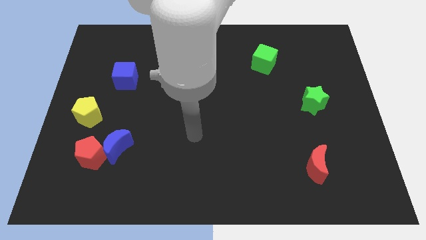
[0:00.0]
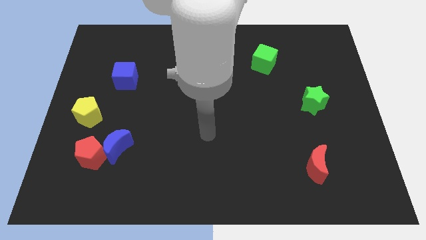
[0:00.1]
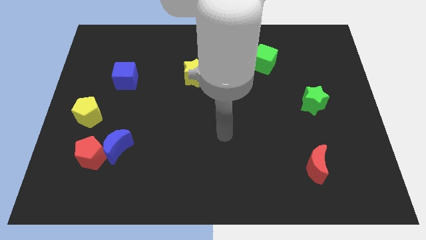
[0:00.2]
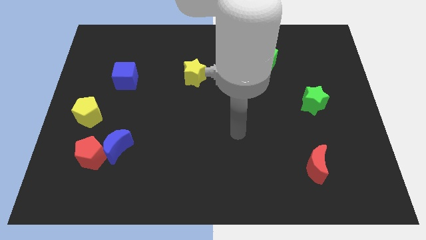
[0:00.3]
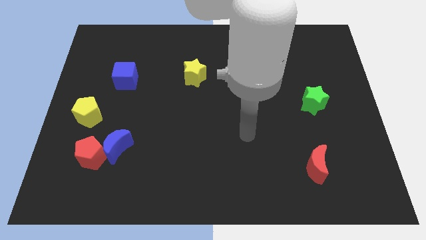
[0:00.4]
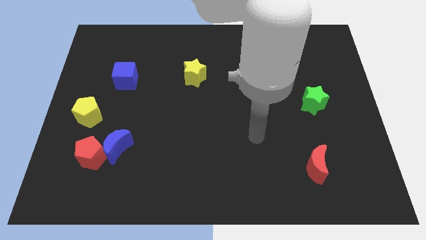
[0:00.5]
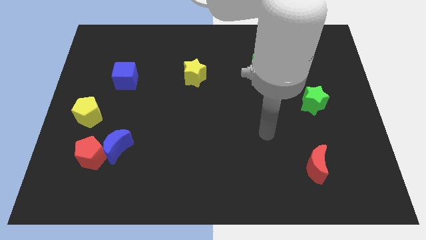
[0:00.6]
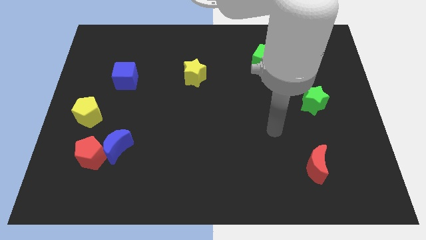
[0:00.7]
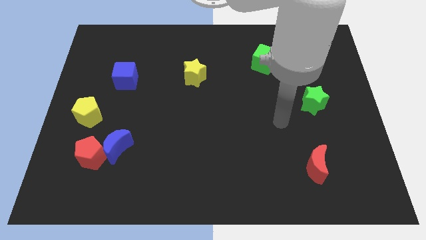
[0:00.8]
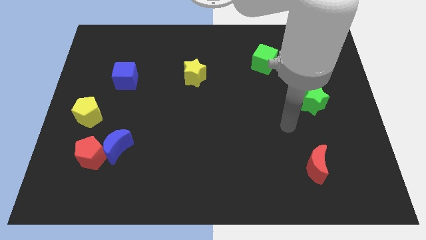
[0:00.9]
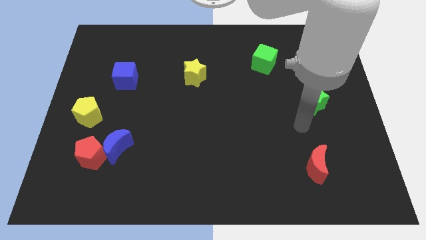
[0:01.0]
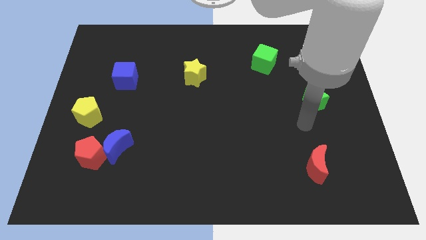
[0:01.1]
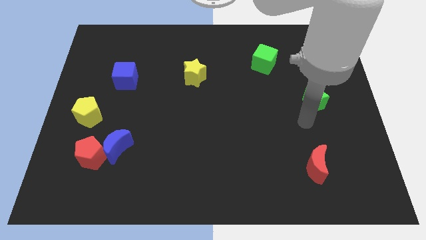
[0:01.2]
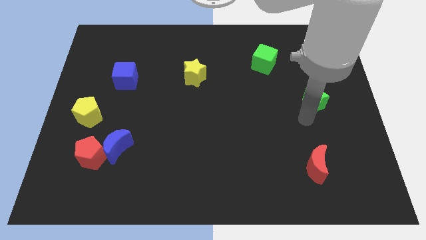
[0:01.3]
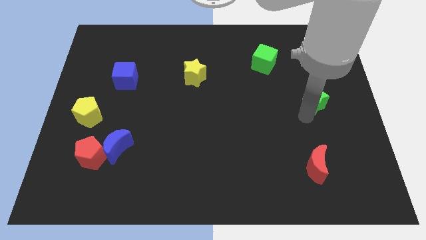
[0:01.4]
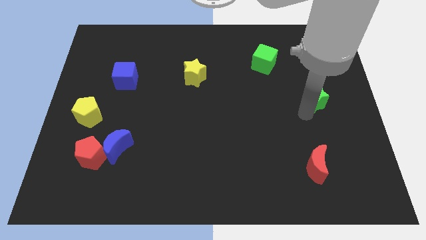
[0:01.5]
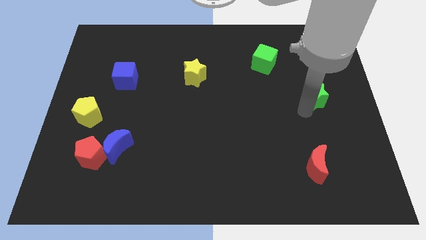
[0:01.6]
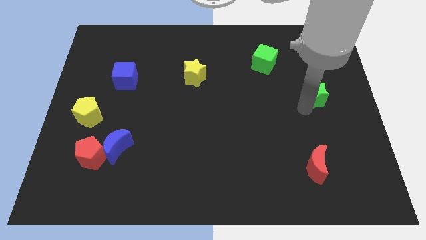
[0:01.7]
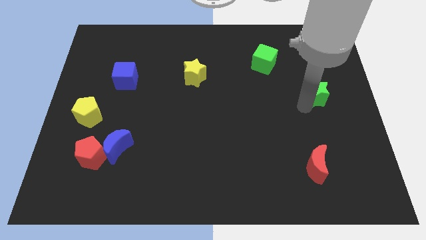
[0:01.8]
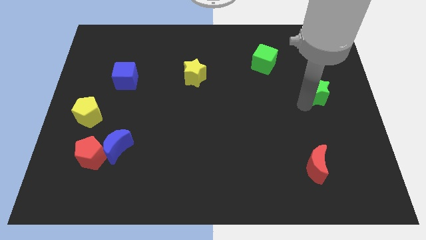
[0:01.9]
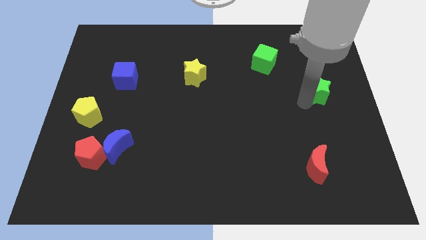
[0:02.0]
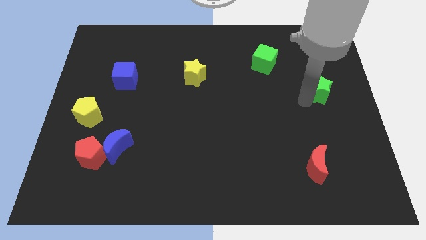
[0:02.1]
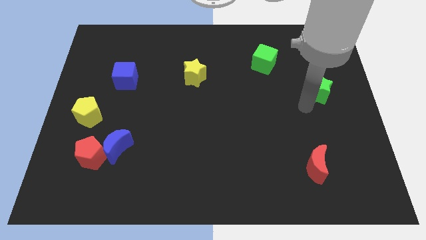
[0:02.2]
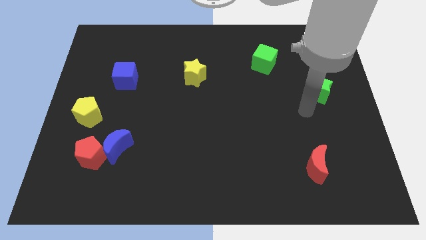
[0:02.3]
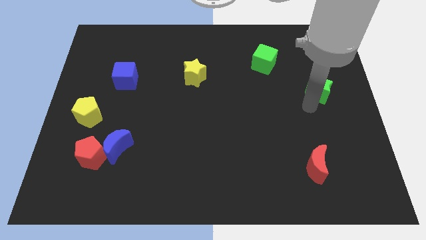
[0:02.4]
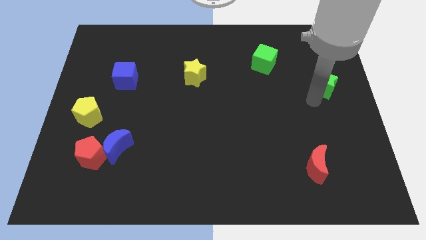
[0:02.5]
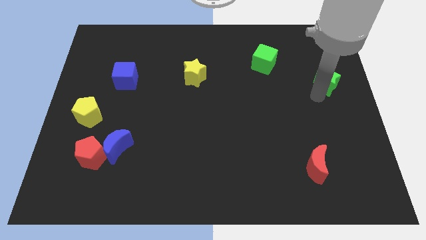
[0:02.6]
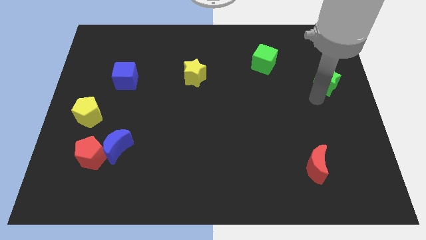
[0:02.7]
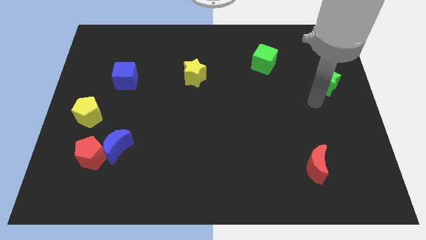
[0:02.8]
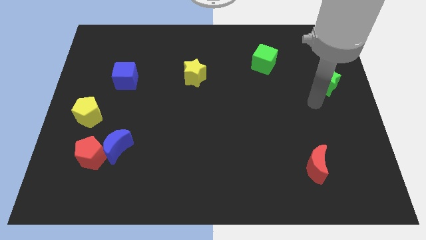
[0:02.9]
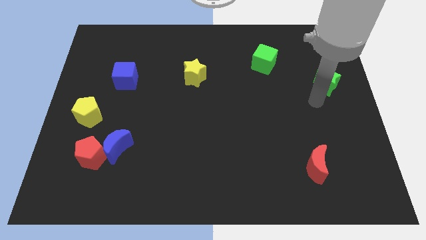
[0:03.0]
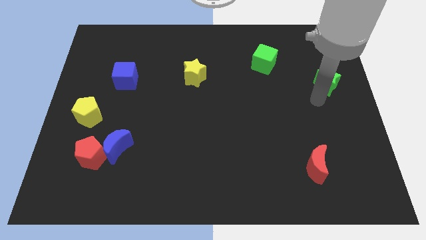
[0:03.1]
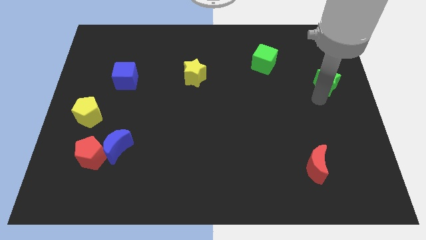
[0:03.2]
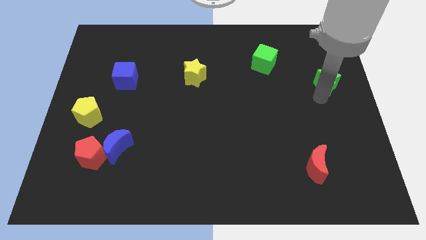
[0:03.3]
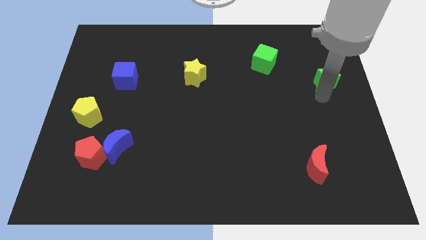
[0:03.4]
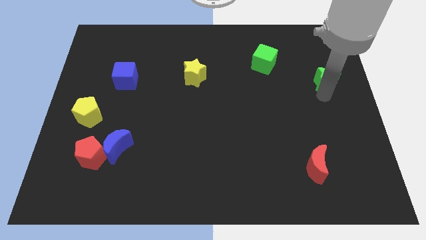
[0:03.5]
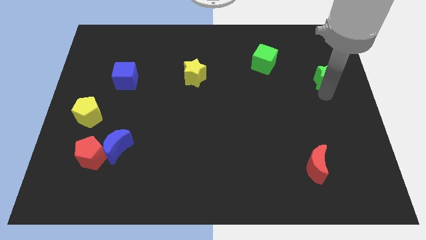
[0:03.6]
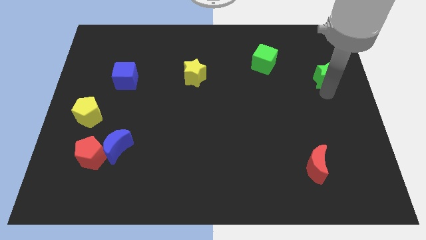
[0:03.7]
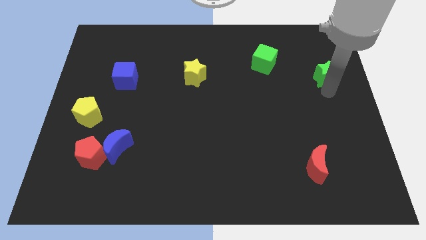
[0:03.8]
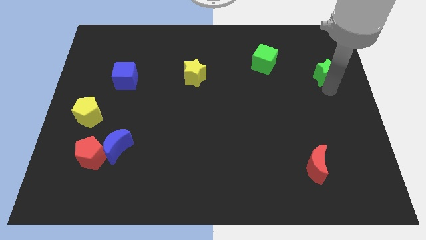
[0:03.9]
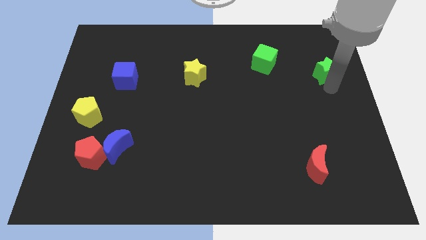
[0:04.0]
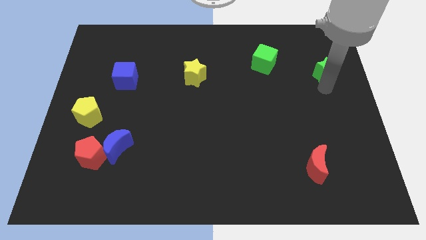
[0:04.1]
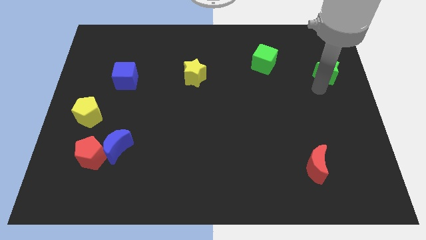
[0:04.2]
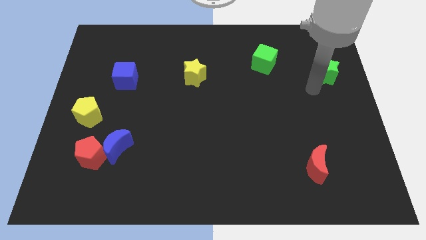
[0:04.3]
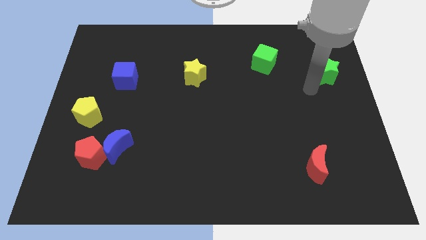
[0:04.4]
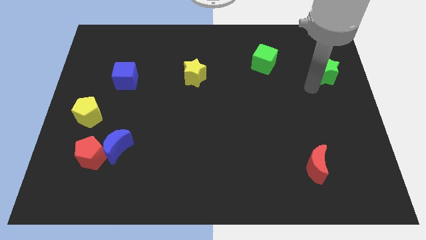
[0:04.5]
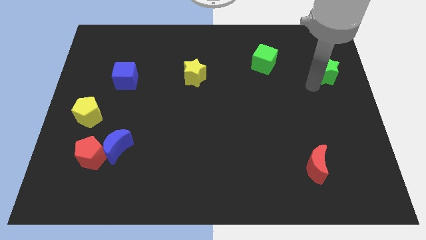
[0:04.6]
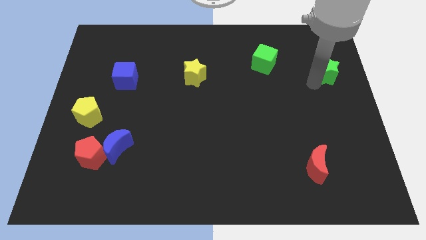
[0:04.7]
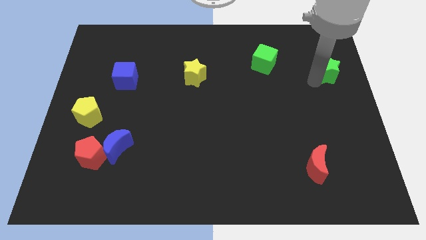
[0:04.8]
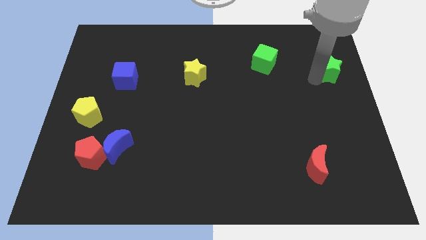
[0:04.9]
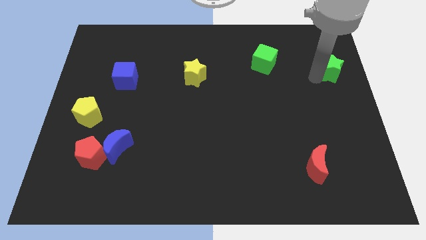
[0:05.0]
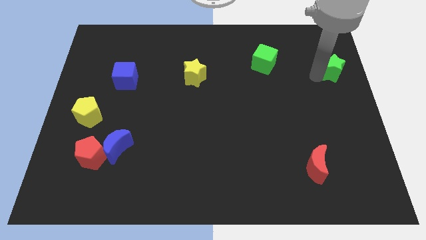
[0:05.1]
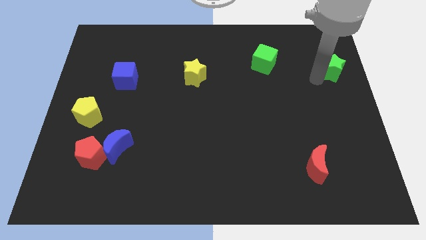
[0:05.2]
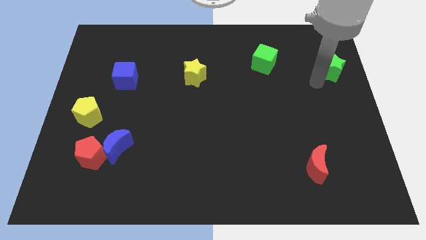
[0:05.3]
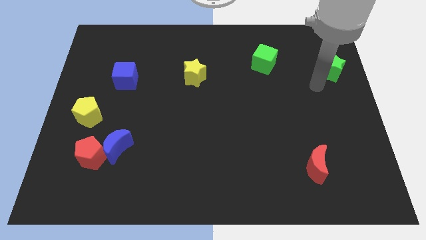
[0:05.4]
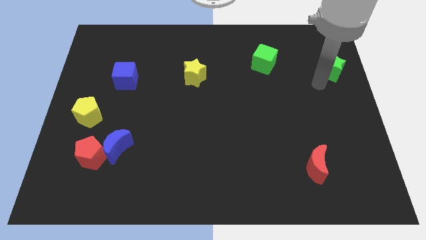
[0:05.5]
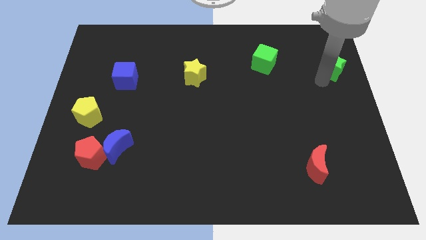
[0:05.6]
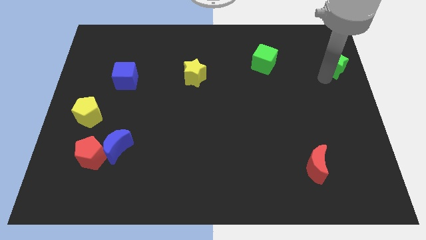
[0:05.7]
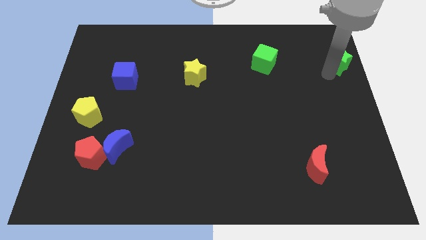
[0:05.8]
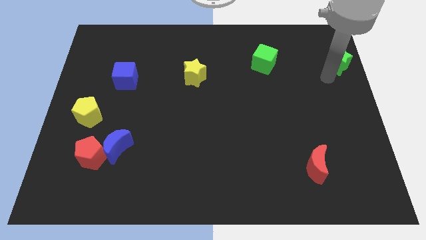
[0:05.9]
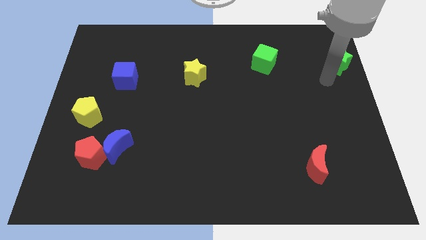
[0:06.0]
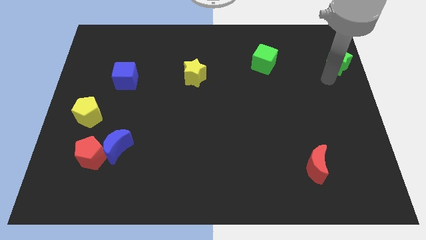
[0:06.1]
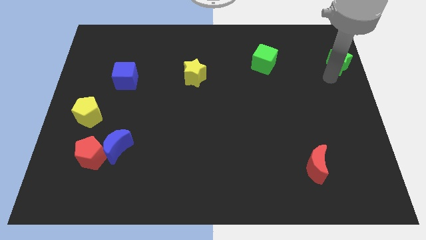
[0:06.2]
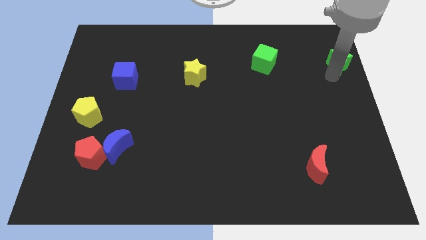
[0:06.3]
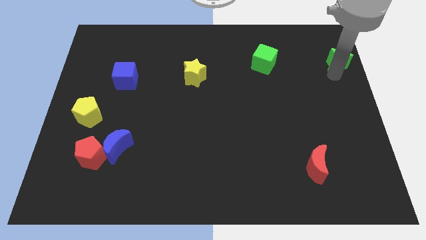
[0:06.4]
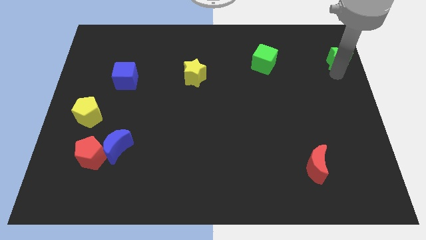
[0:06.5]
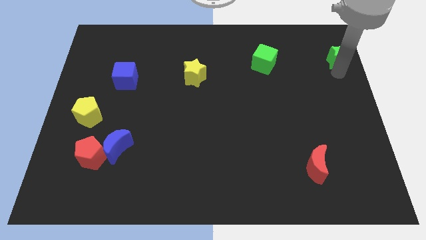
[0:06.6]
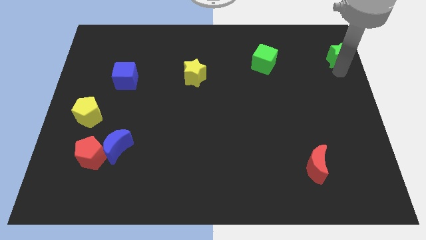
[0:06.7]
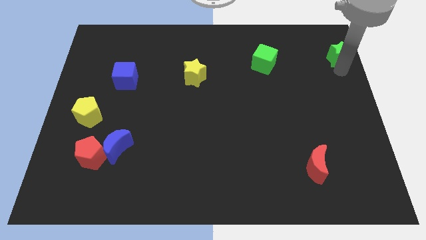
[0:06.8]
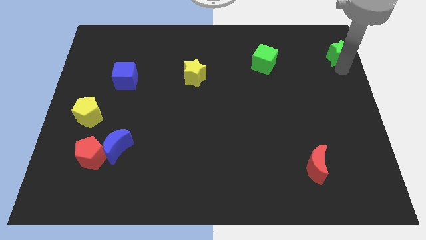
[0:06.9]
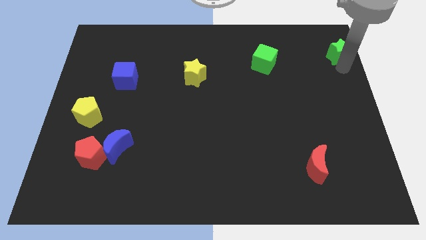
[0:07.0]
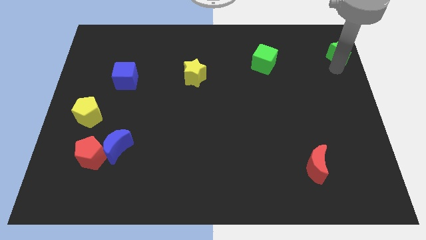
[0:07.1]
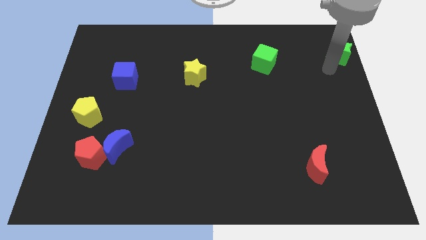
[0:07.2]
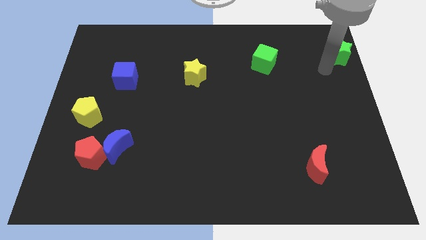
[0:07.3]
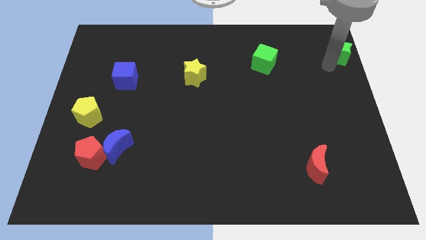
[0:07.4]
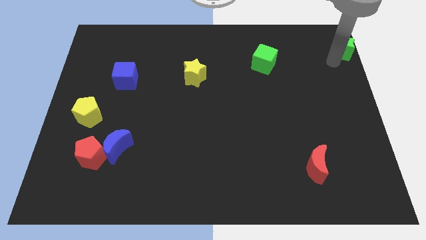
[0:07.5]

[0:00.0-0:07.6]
put the green star to the top right
